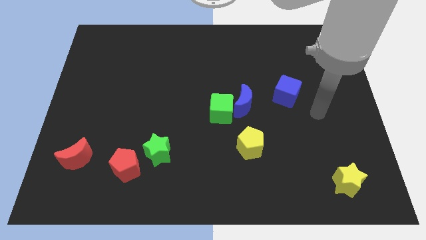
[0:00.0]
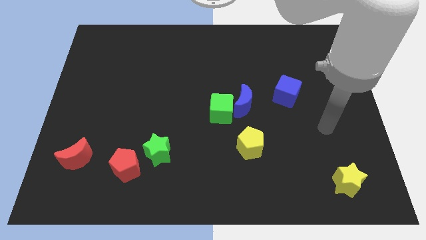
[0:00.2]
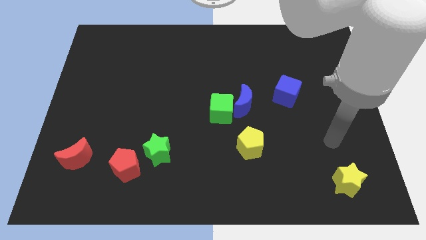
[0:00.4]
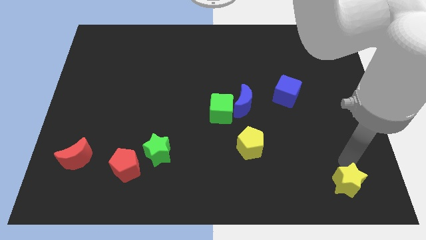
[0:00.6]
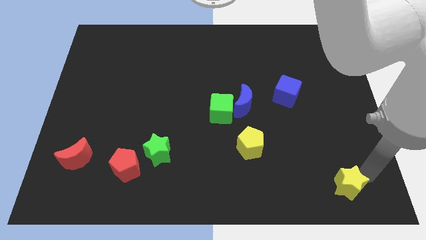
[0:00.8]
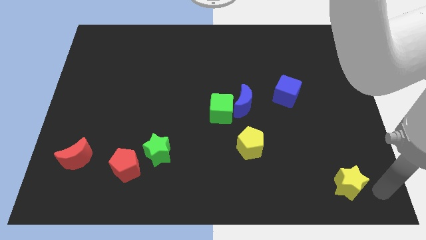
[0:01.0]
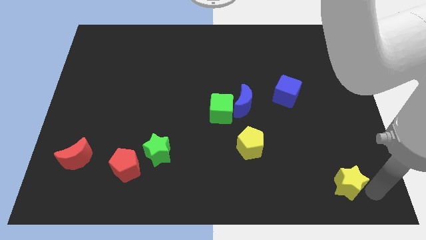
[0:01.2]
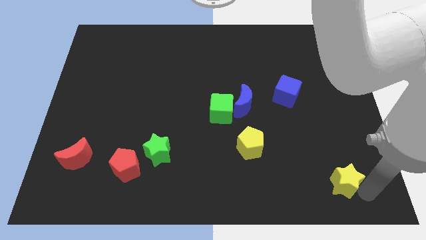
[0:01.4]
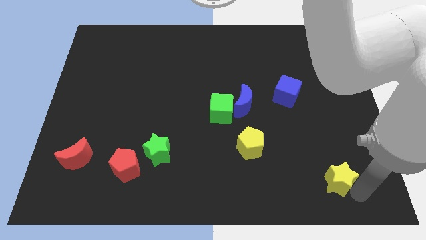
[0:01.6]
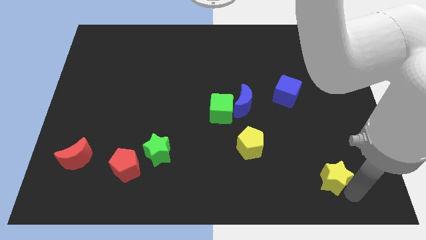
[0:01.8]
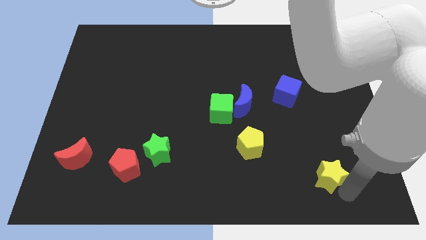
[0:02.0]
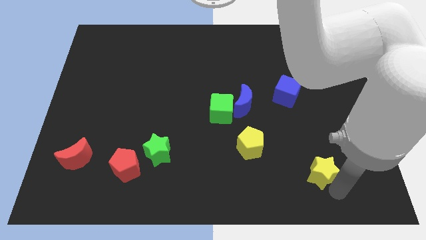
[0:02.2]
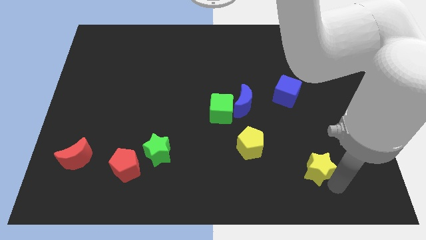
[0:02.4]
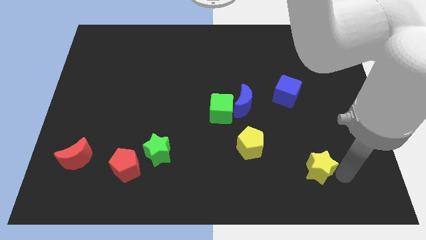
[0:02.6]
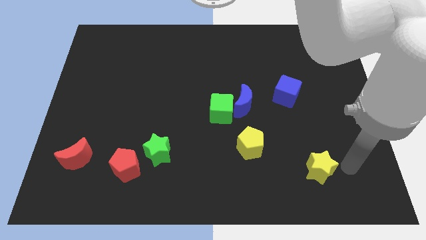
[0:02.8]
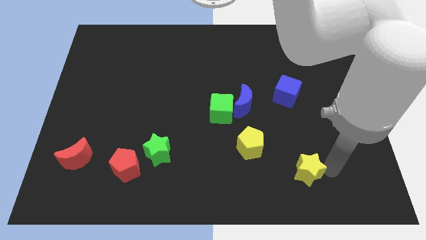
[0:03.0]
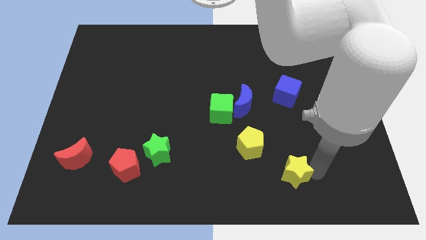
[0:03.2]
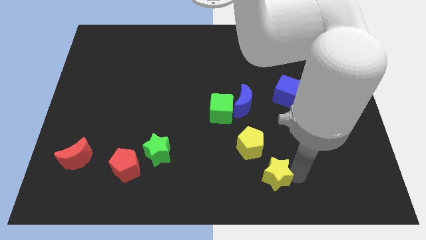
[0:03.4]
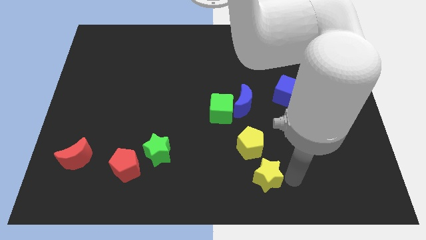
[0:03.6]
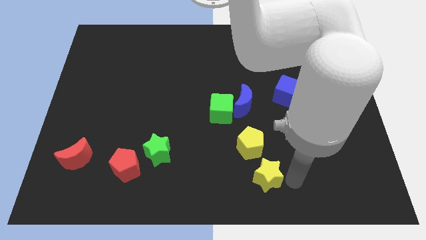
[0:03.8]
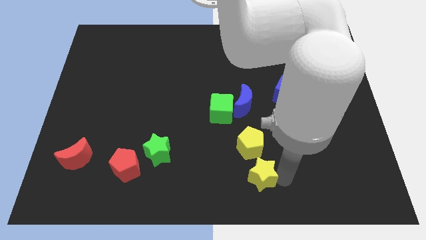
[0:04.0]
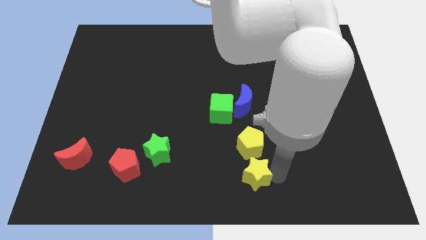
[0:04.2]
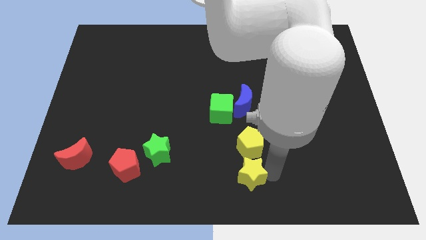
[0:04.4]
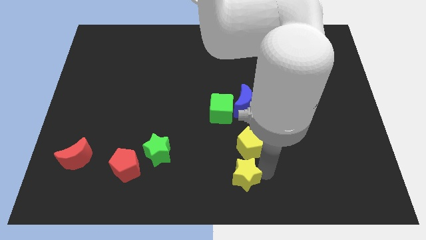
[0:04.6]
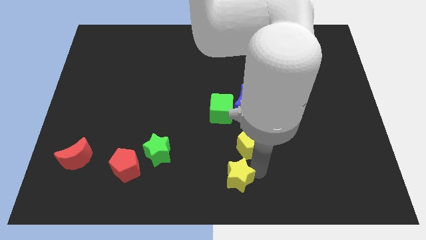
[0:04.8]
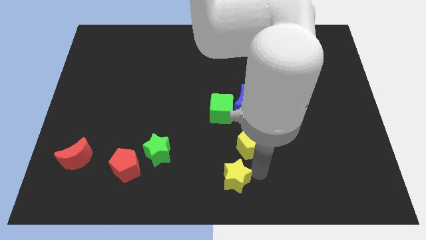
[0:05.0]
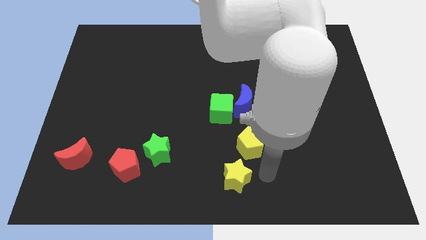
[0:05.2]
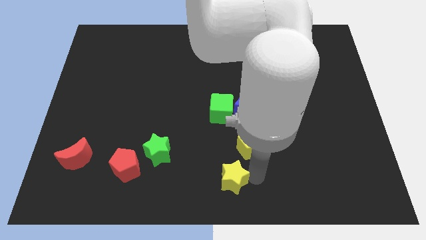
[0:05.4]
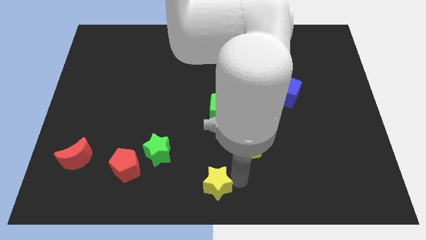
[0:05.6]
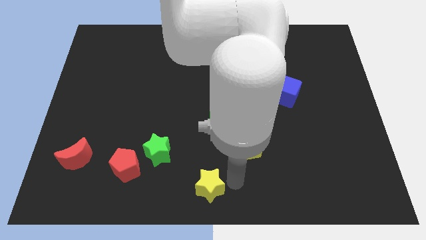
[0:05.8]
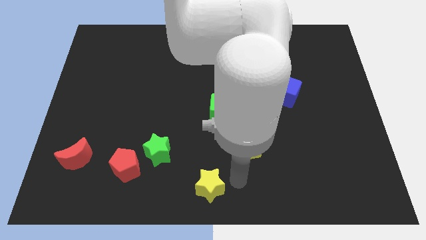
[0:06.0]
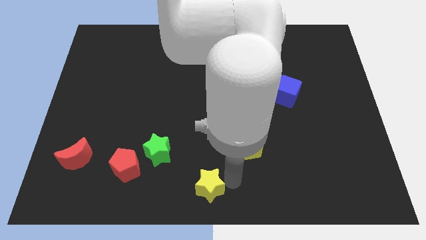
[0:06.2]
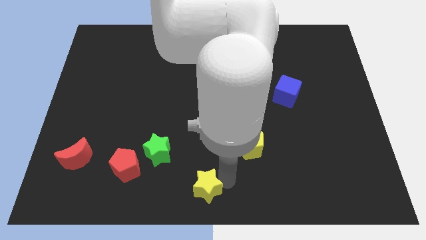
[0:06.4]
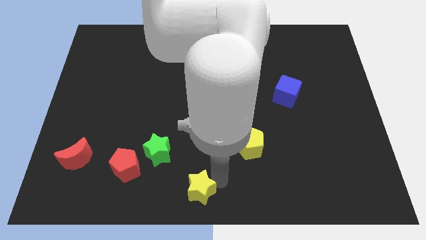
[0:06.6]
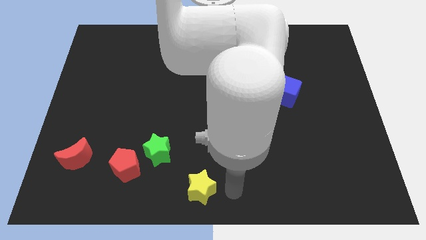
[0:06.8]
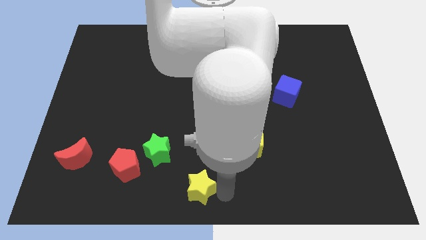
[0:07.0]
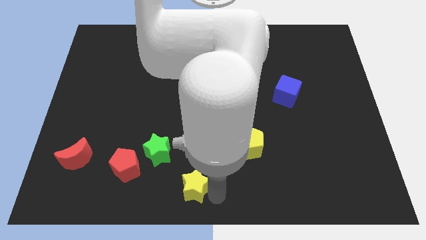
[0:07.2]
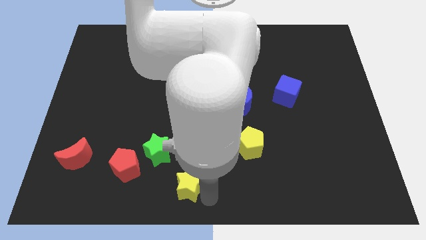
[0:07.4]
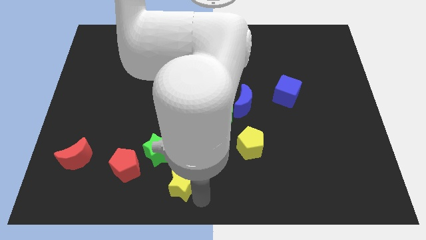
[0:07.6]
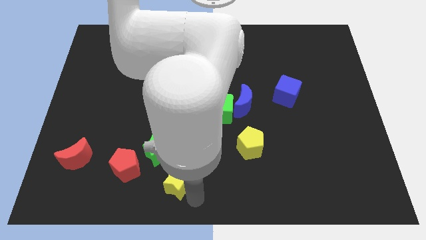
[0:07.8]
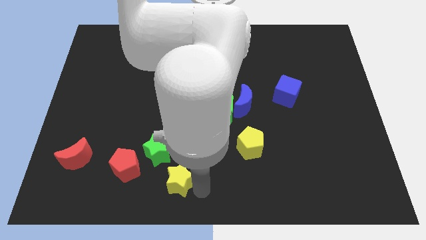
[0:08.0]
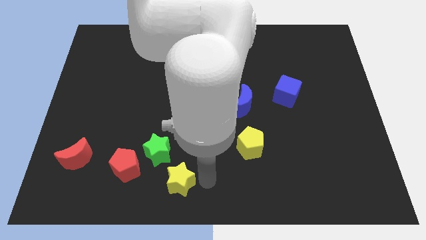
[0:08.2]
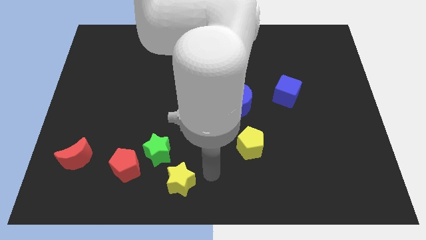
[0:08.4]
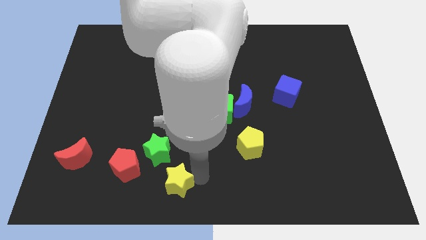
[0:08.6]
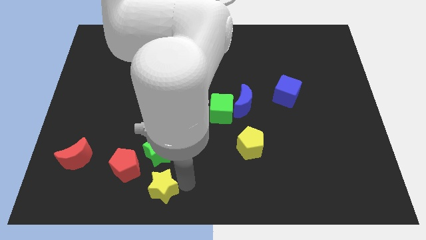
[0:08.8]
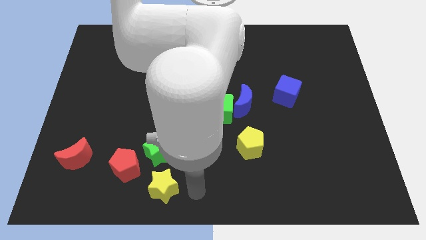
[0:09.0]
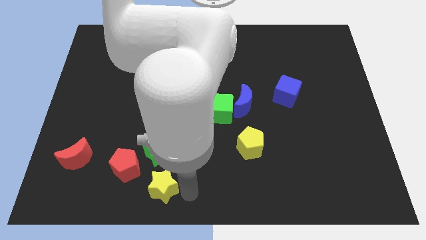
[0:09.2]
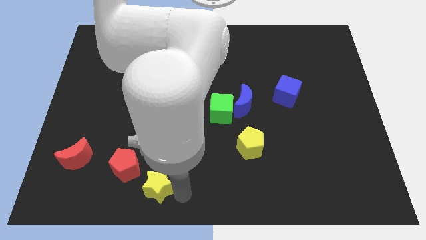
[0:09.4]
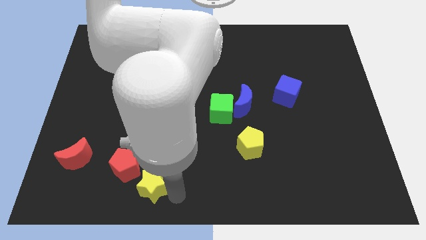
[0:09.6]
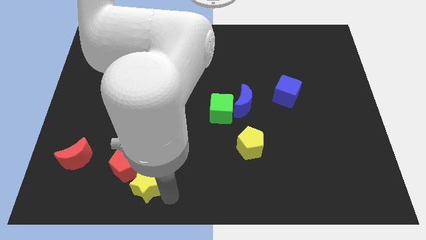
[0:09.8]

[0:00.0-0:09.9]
slide the yellow star to the bottom left of the green star
